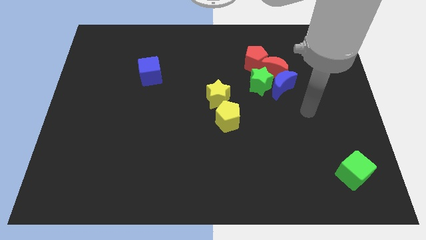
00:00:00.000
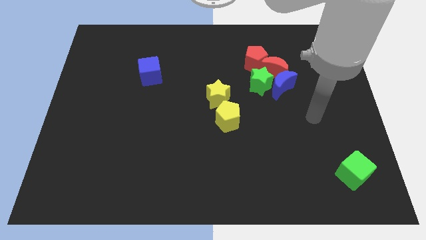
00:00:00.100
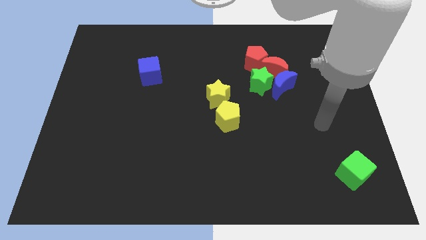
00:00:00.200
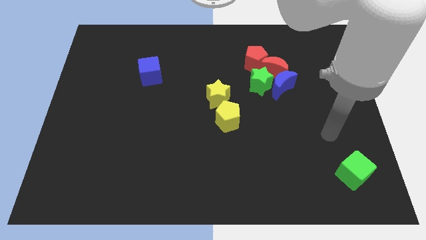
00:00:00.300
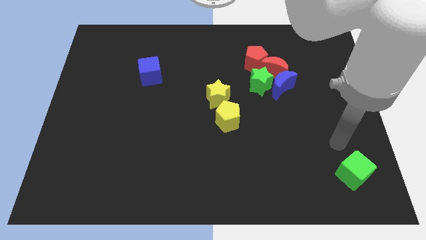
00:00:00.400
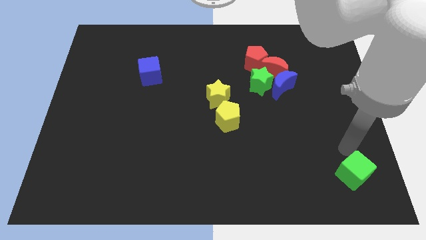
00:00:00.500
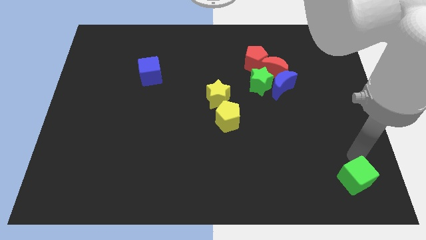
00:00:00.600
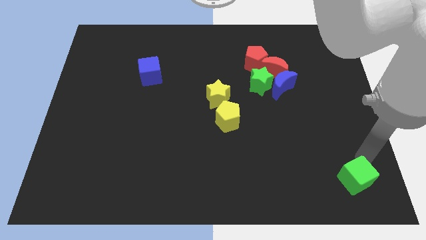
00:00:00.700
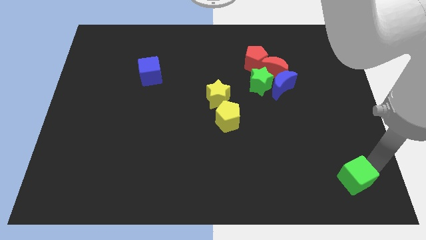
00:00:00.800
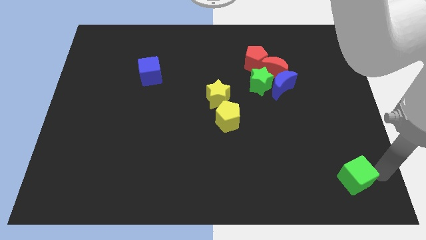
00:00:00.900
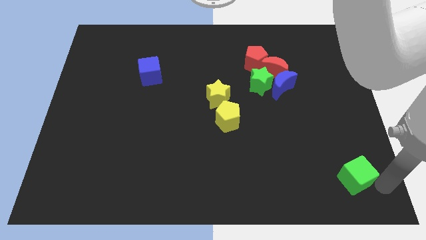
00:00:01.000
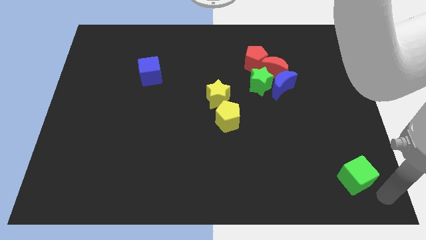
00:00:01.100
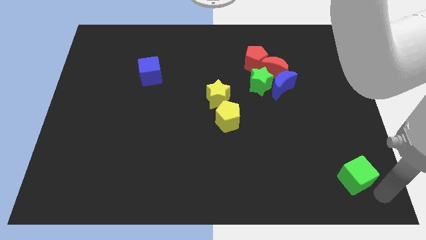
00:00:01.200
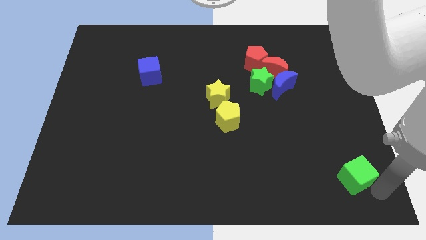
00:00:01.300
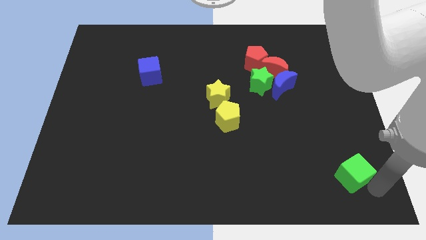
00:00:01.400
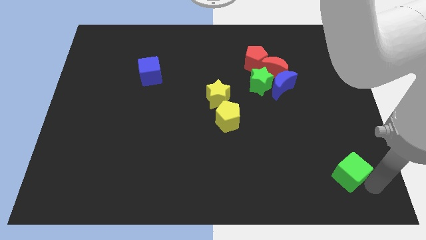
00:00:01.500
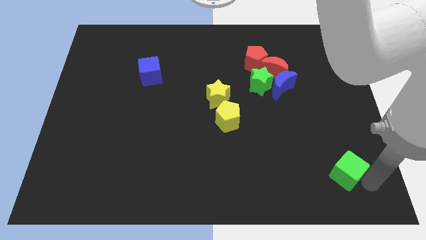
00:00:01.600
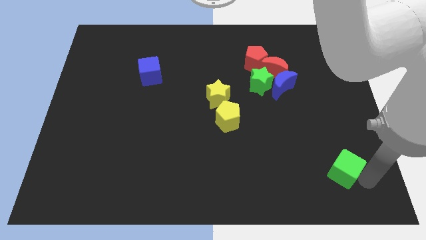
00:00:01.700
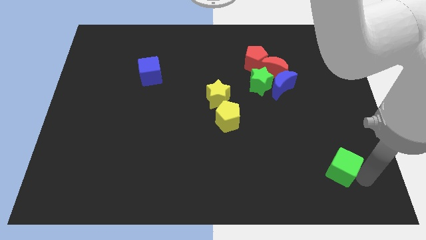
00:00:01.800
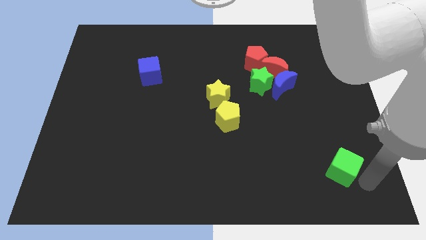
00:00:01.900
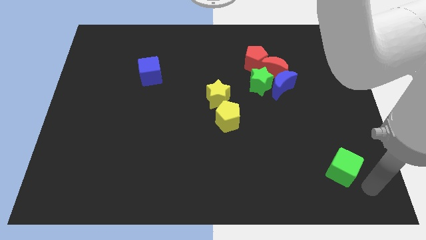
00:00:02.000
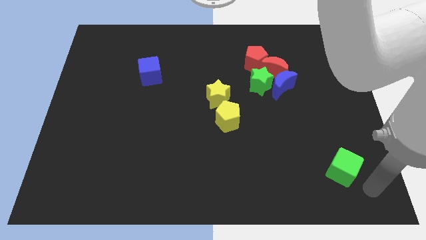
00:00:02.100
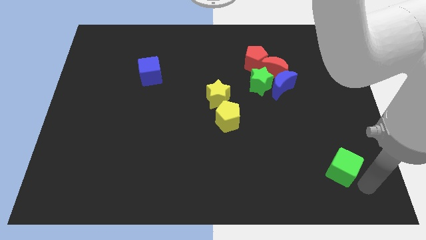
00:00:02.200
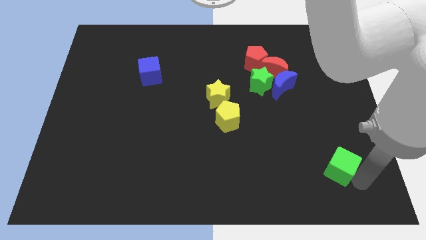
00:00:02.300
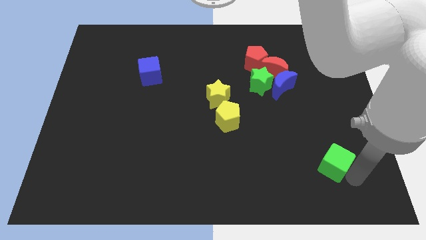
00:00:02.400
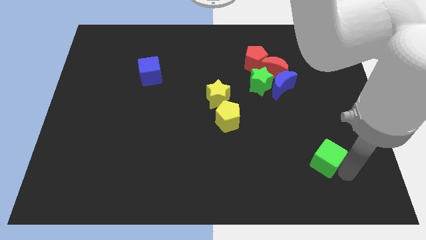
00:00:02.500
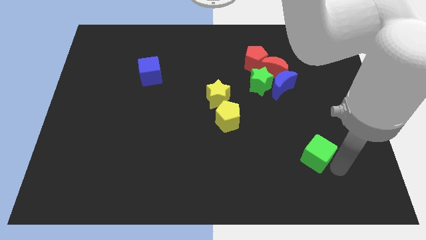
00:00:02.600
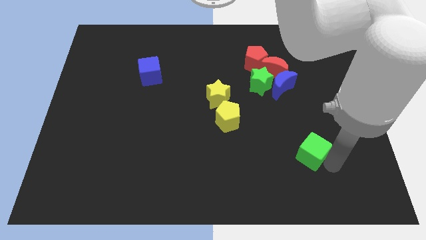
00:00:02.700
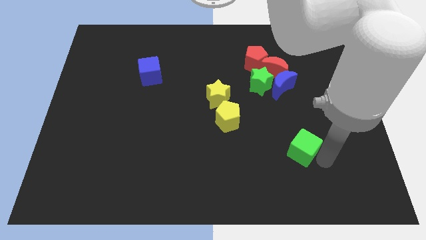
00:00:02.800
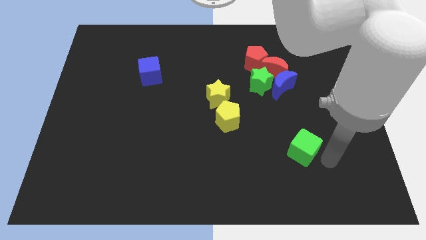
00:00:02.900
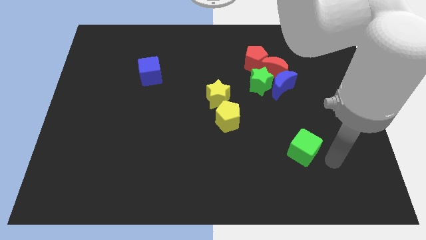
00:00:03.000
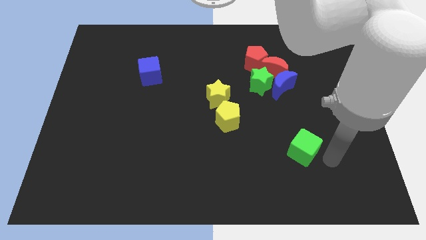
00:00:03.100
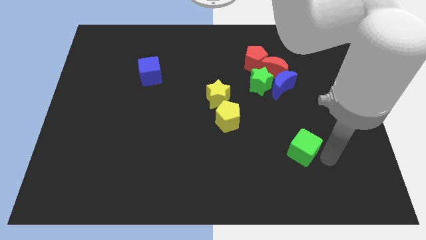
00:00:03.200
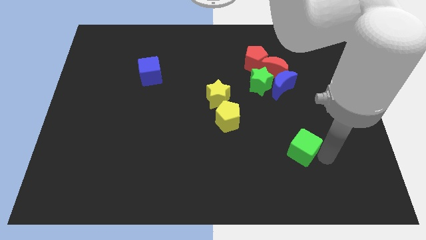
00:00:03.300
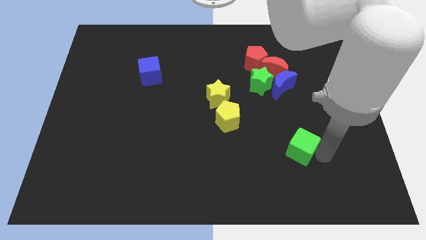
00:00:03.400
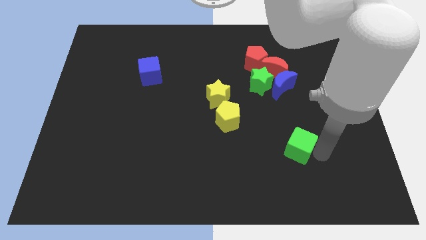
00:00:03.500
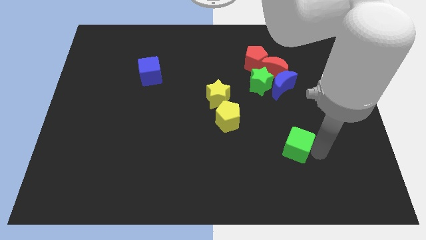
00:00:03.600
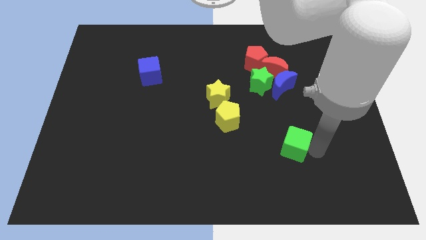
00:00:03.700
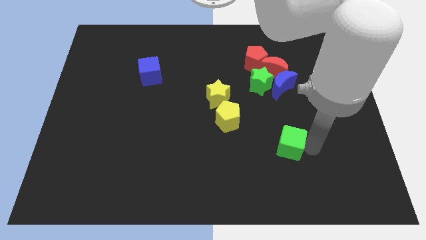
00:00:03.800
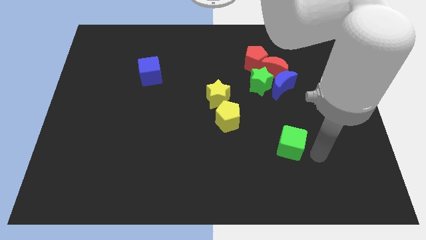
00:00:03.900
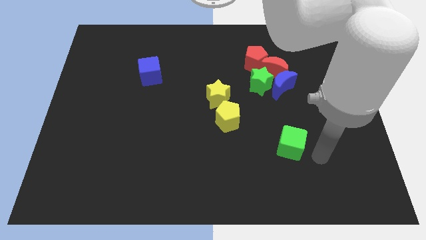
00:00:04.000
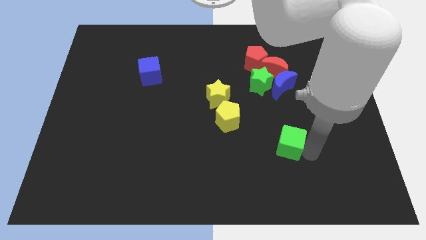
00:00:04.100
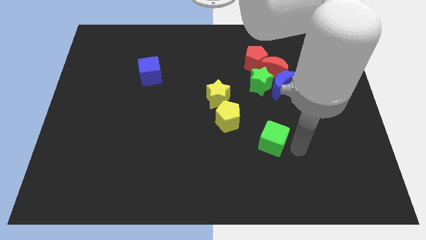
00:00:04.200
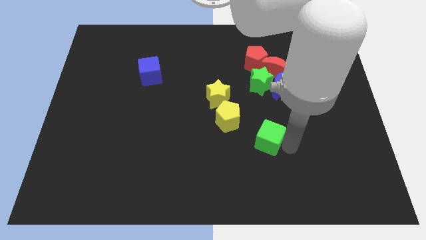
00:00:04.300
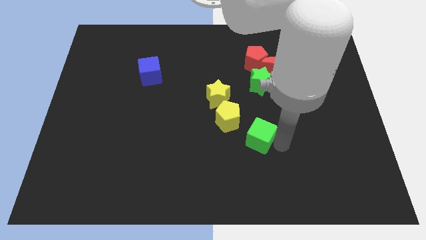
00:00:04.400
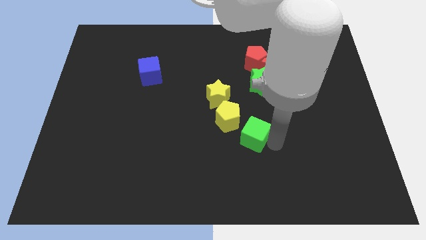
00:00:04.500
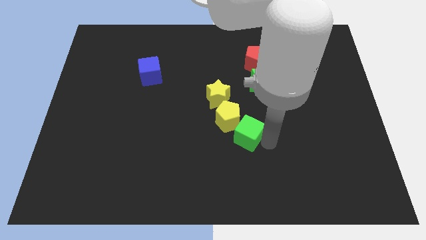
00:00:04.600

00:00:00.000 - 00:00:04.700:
move the green cube towards the yellow pentagon

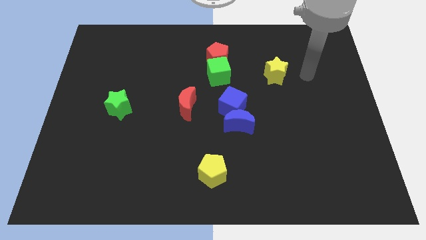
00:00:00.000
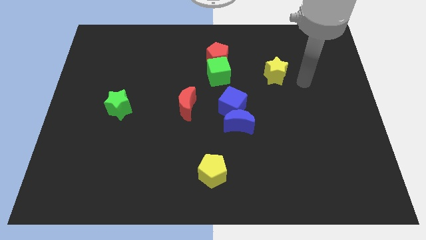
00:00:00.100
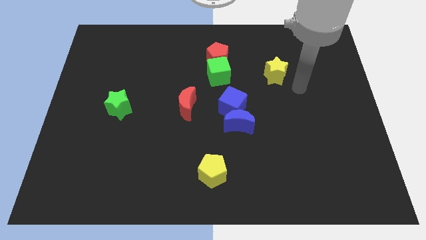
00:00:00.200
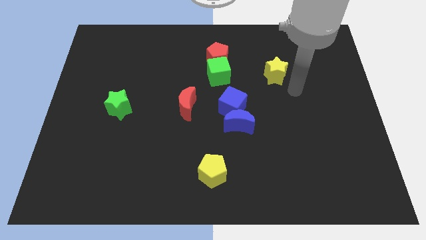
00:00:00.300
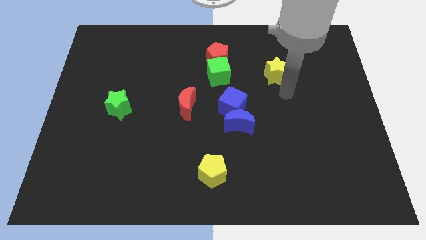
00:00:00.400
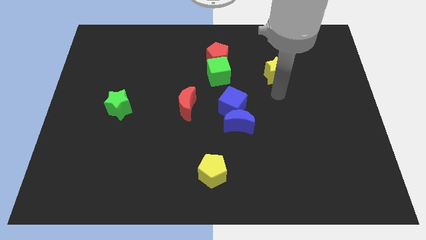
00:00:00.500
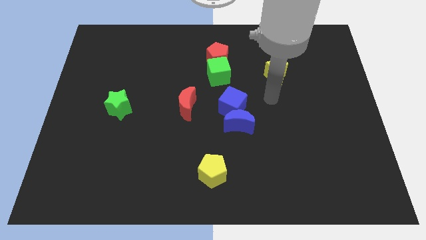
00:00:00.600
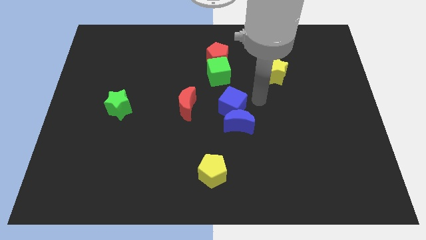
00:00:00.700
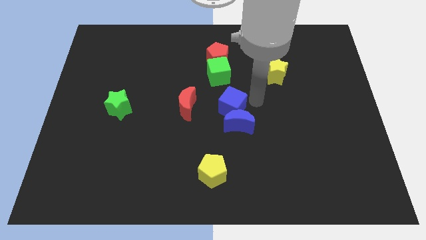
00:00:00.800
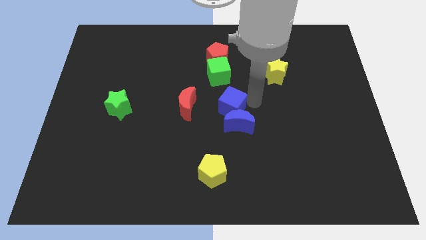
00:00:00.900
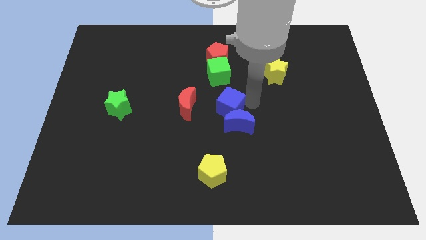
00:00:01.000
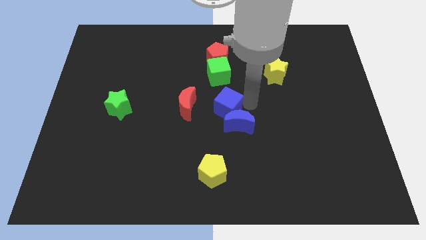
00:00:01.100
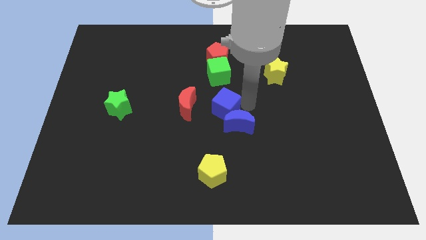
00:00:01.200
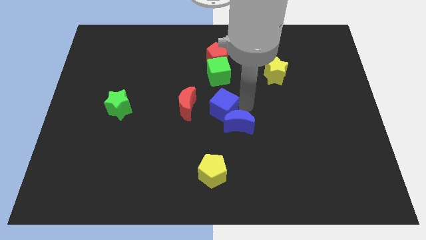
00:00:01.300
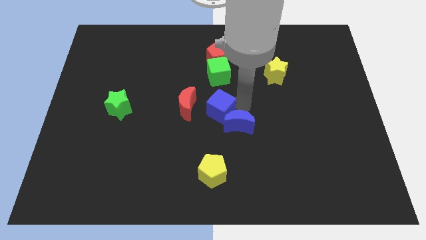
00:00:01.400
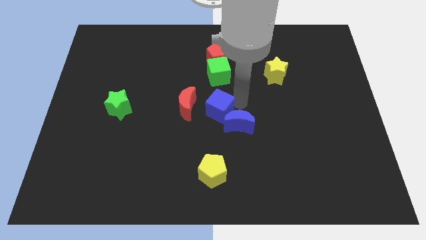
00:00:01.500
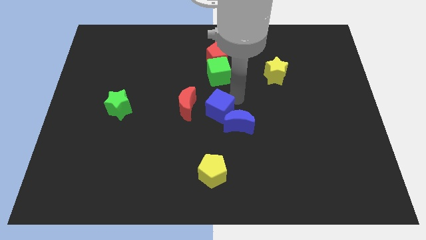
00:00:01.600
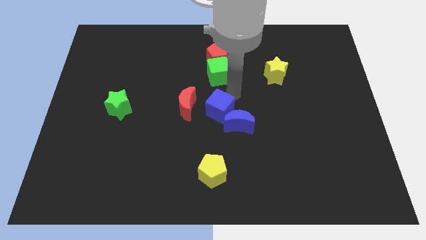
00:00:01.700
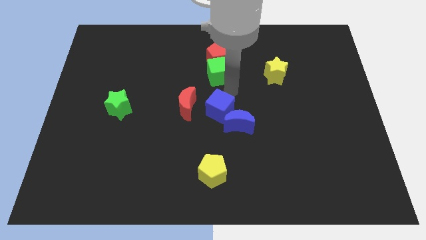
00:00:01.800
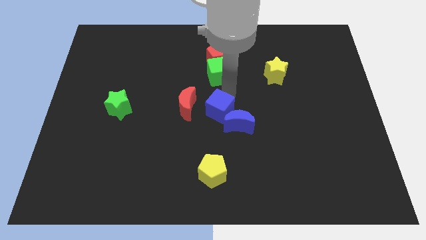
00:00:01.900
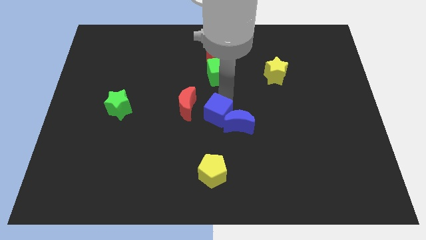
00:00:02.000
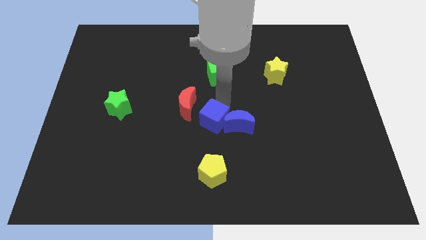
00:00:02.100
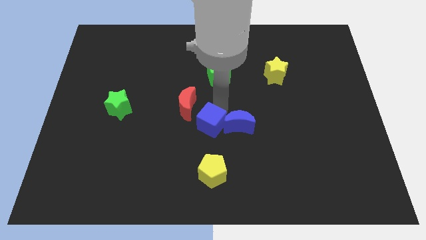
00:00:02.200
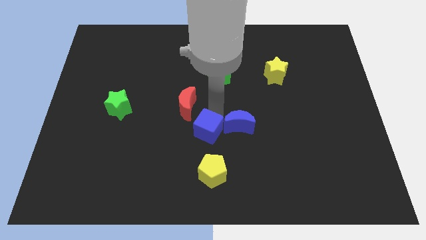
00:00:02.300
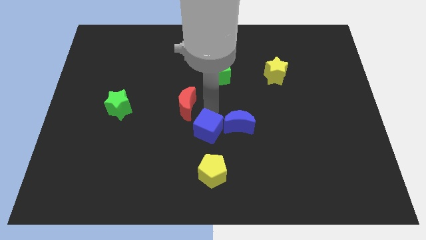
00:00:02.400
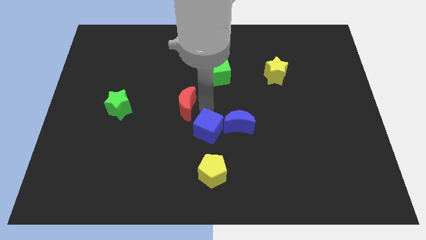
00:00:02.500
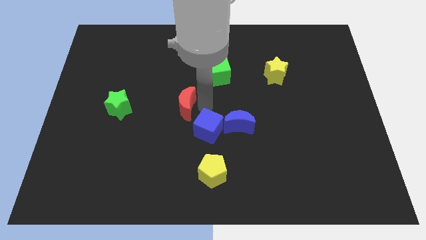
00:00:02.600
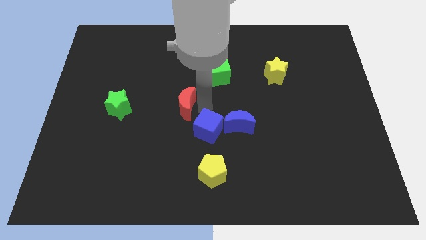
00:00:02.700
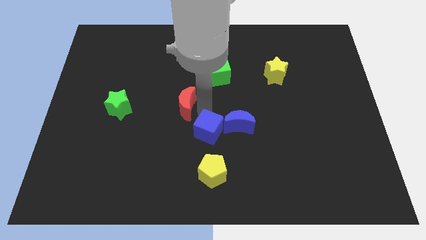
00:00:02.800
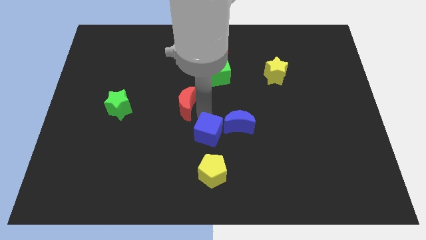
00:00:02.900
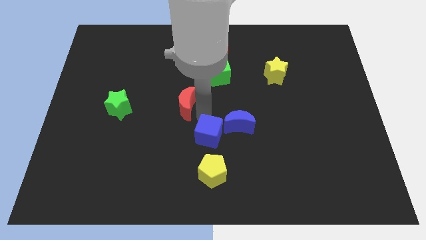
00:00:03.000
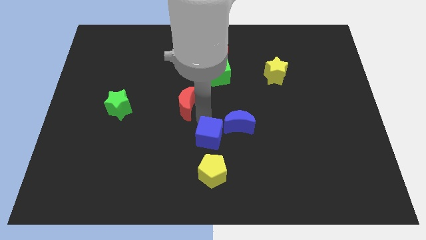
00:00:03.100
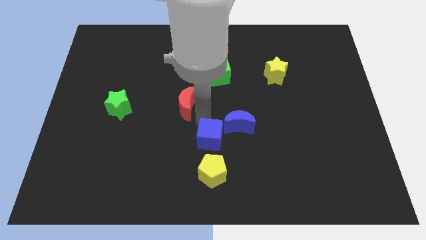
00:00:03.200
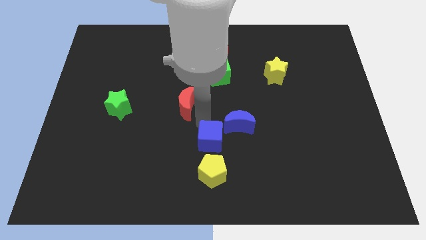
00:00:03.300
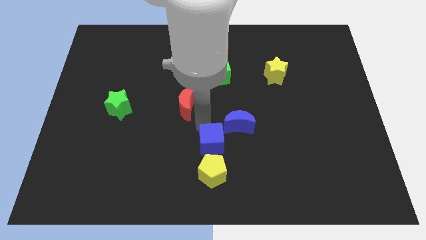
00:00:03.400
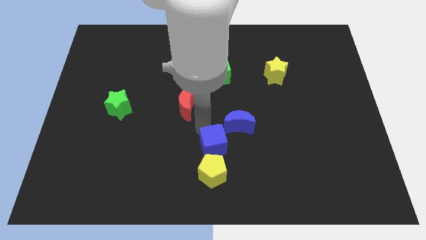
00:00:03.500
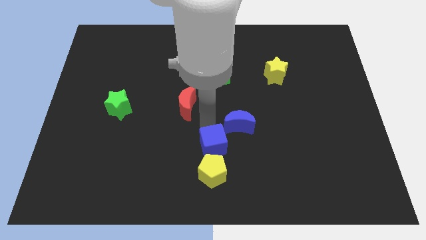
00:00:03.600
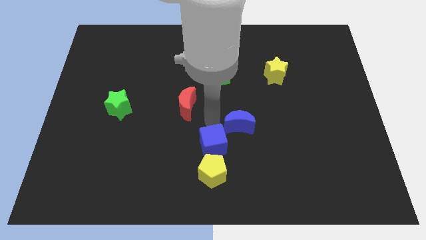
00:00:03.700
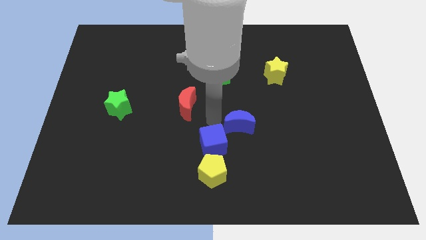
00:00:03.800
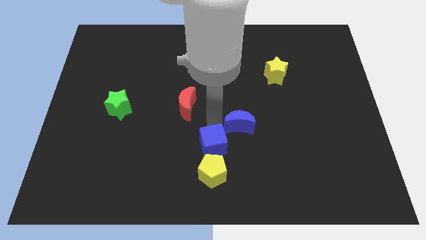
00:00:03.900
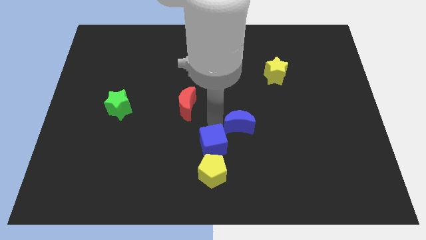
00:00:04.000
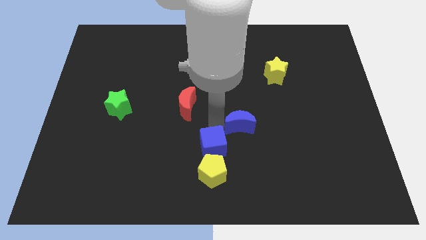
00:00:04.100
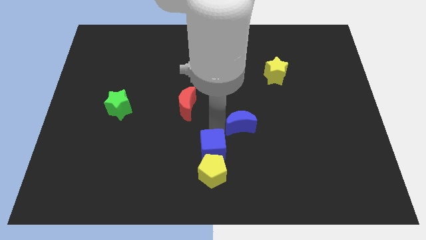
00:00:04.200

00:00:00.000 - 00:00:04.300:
slide the blue cube close to the yellow pentagon
